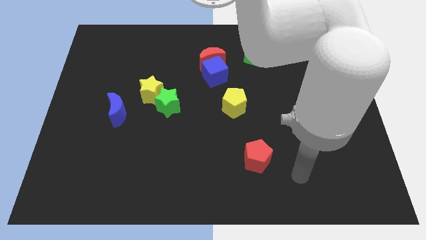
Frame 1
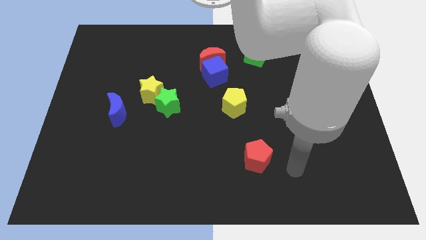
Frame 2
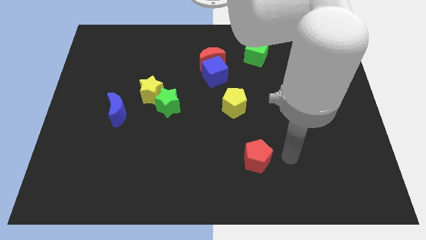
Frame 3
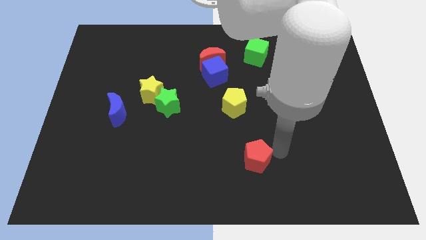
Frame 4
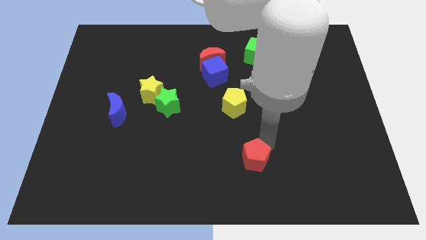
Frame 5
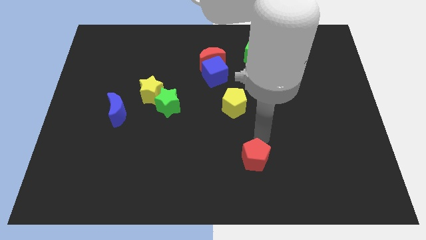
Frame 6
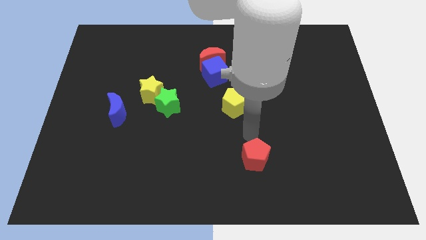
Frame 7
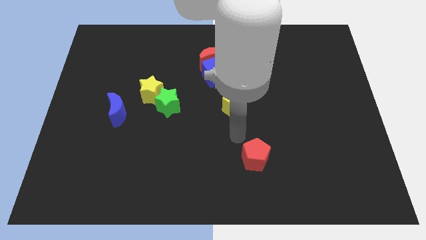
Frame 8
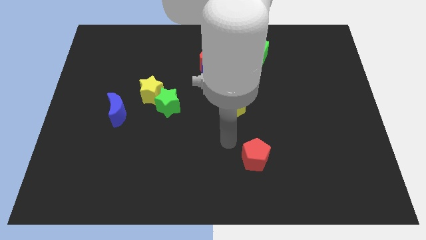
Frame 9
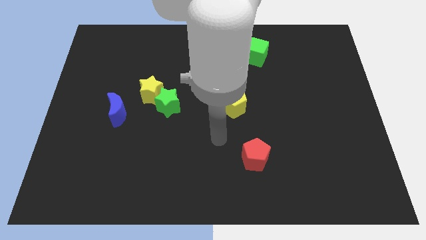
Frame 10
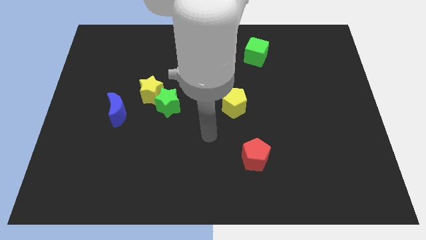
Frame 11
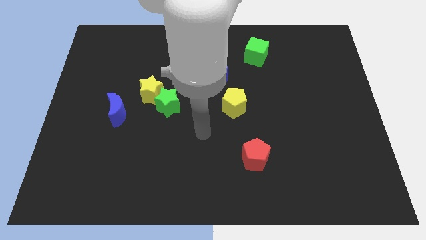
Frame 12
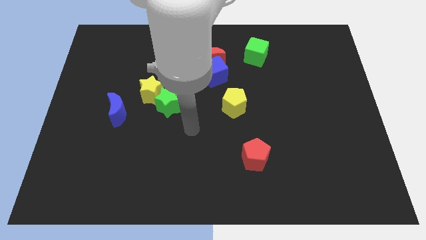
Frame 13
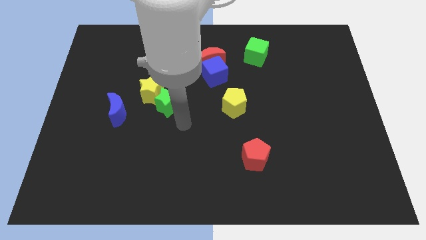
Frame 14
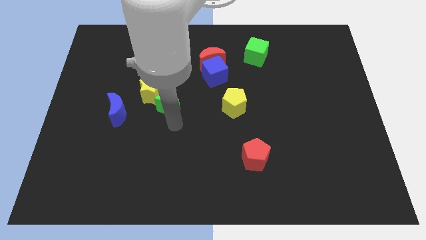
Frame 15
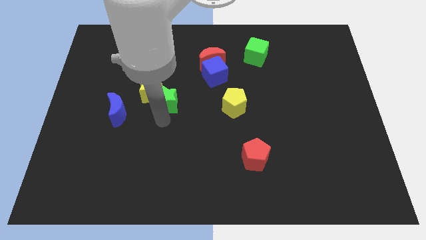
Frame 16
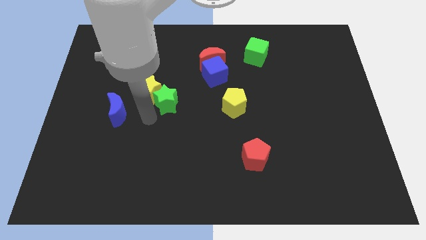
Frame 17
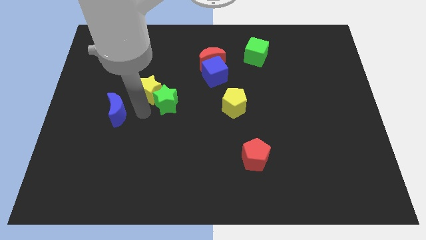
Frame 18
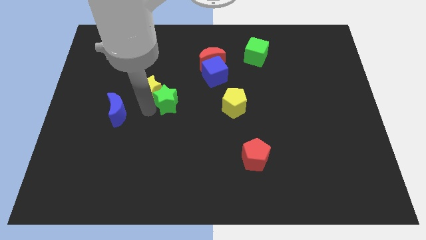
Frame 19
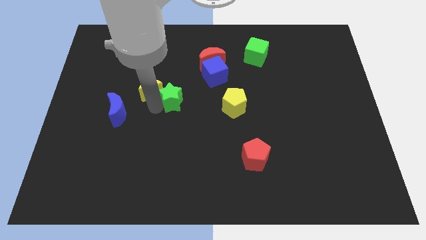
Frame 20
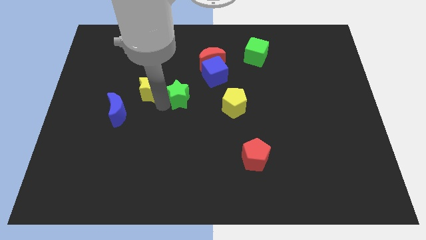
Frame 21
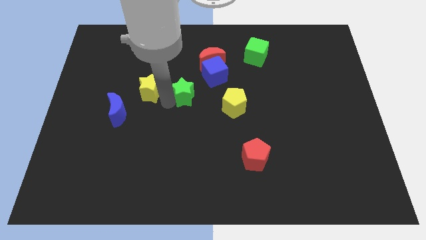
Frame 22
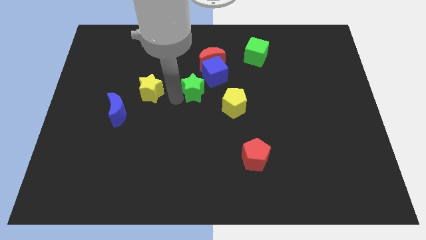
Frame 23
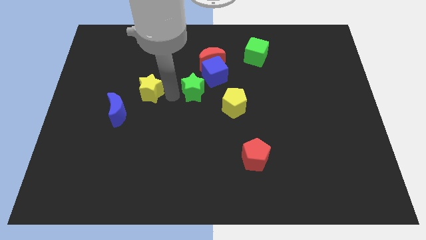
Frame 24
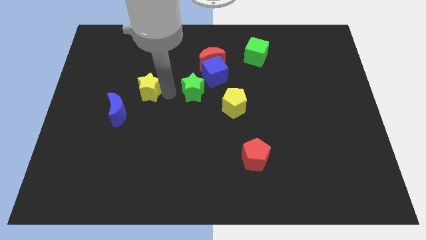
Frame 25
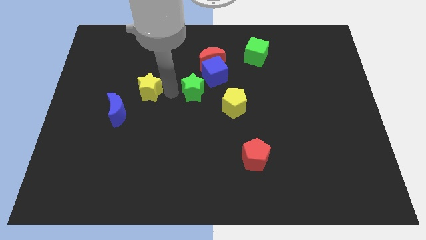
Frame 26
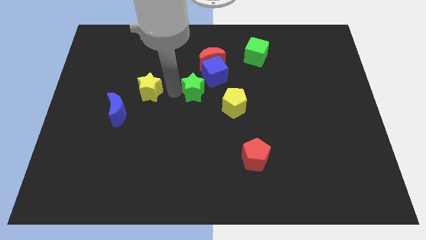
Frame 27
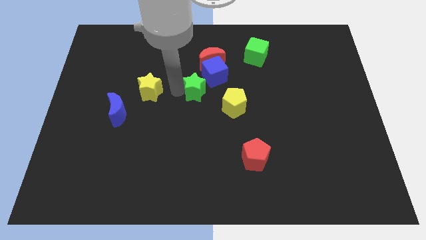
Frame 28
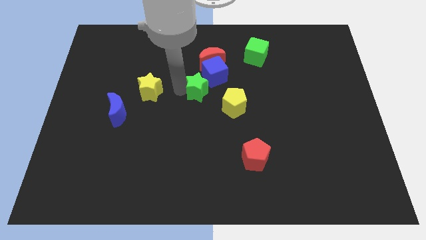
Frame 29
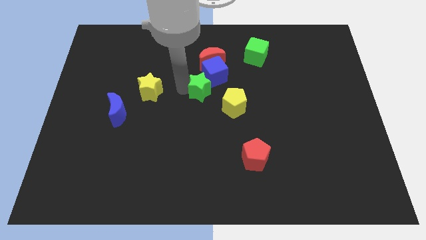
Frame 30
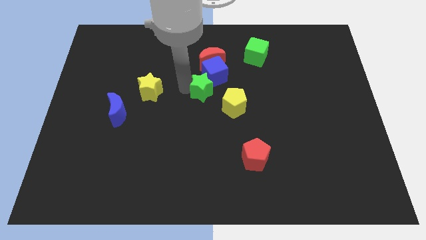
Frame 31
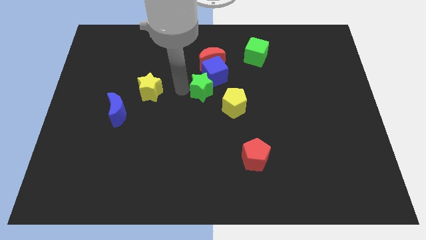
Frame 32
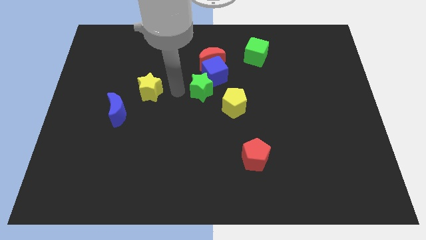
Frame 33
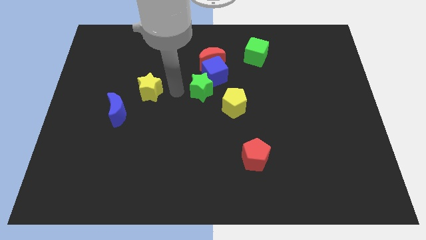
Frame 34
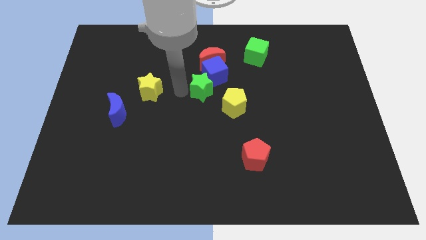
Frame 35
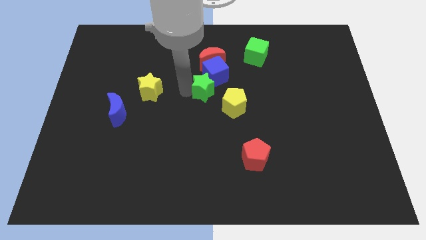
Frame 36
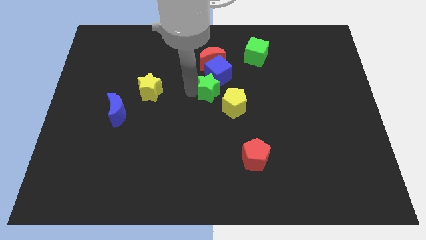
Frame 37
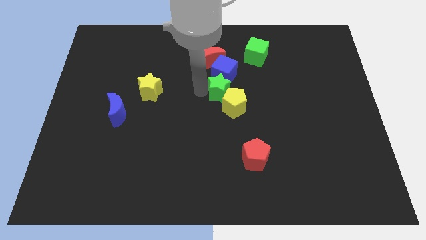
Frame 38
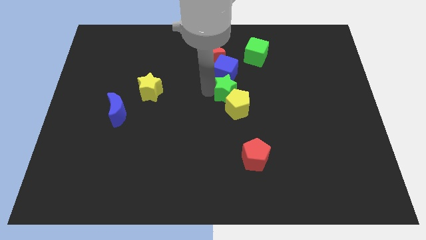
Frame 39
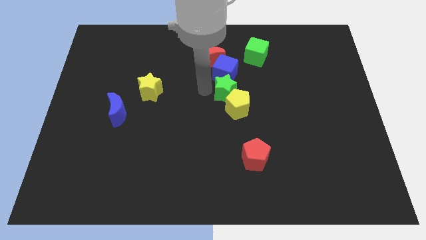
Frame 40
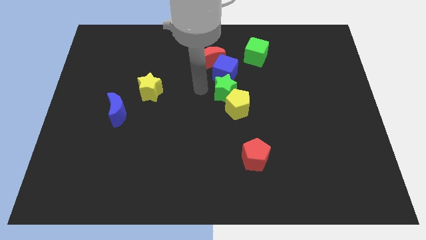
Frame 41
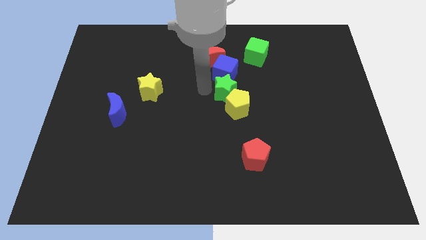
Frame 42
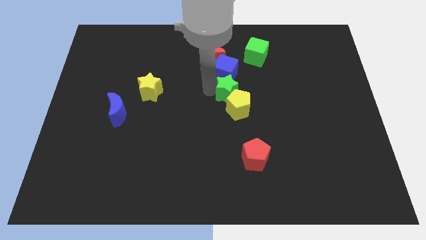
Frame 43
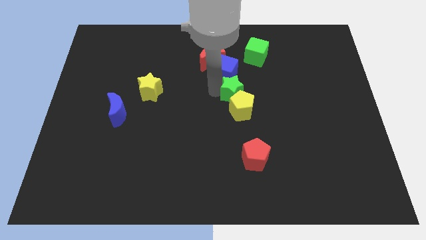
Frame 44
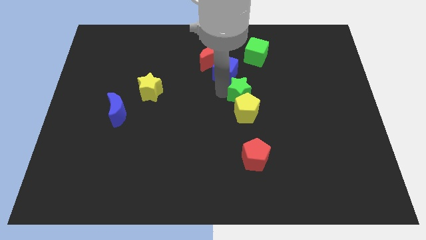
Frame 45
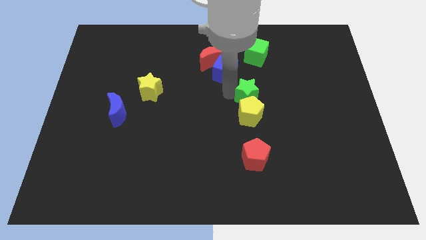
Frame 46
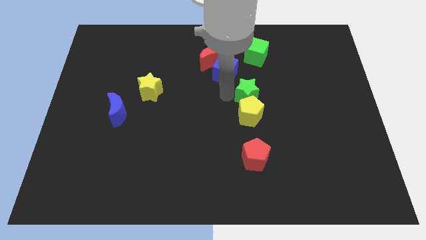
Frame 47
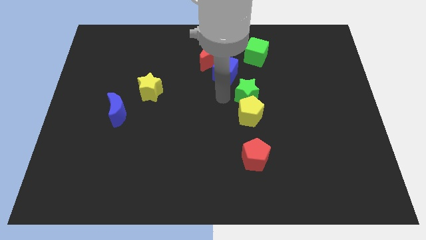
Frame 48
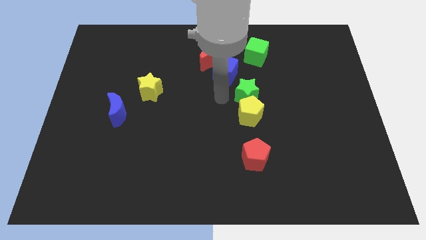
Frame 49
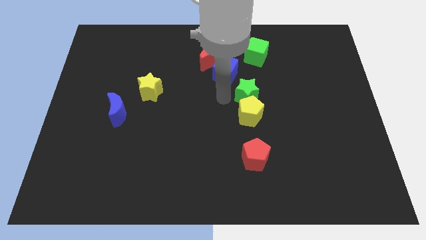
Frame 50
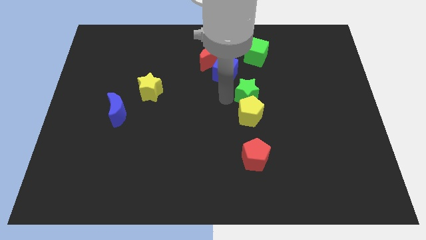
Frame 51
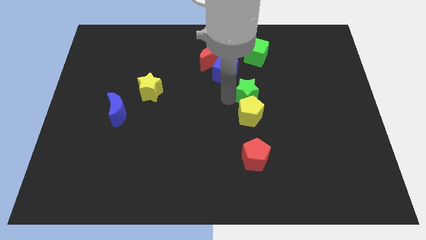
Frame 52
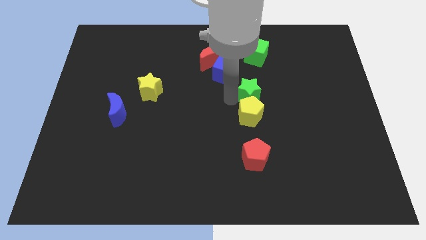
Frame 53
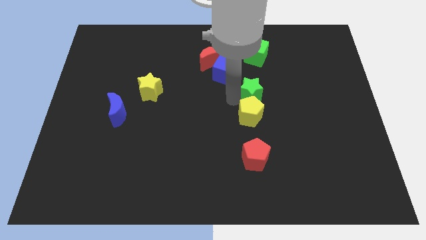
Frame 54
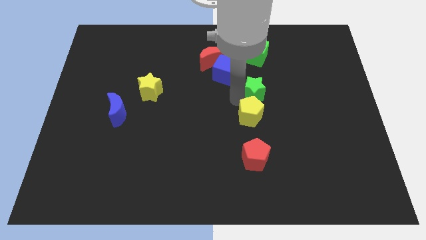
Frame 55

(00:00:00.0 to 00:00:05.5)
slide the green star to the right

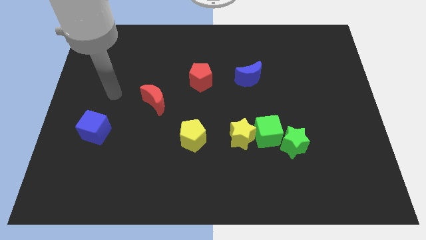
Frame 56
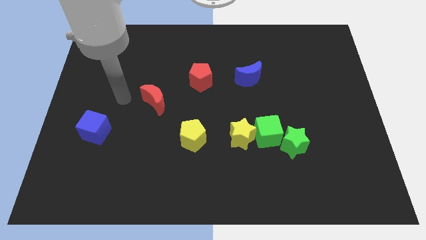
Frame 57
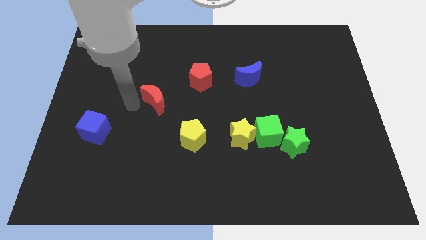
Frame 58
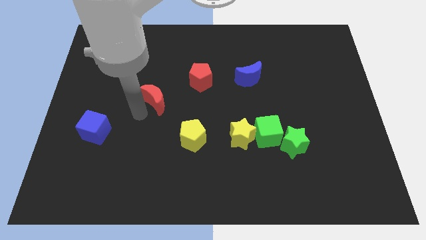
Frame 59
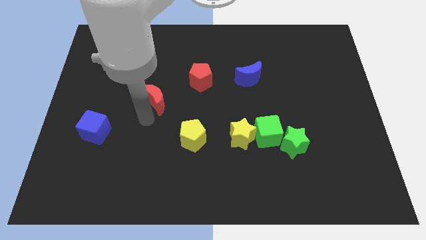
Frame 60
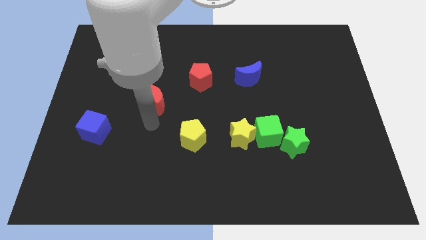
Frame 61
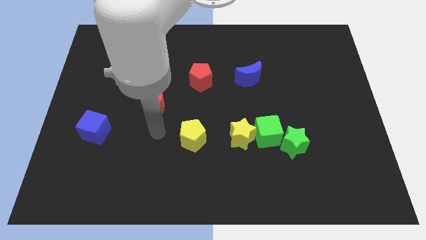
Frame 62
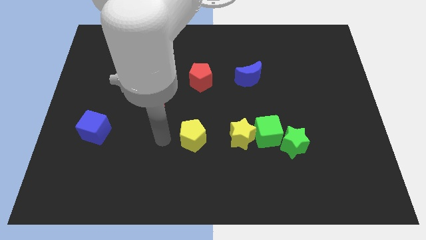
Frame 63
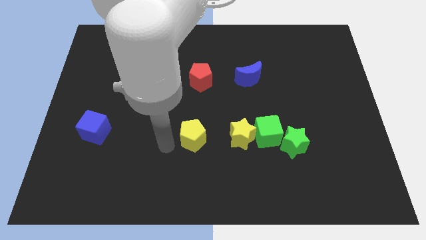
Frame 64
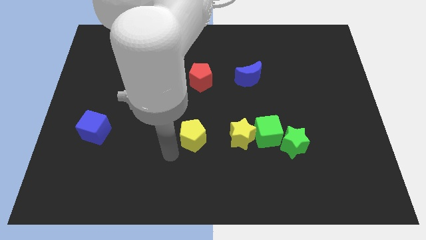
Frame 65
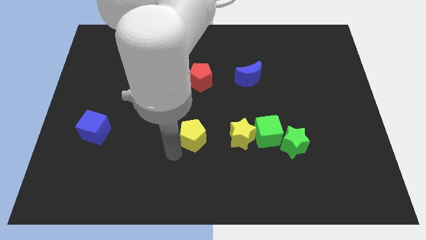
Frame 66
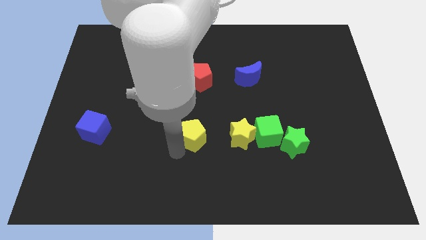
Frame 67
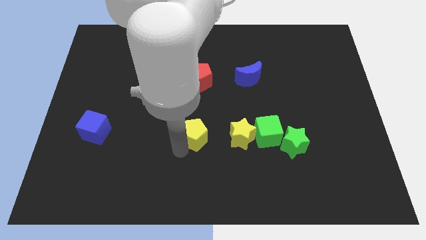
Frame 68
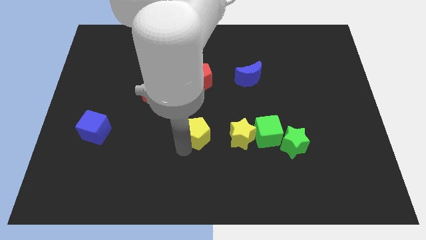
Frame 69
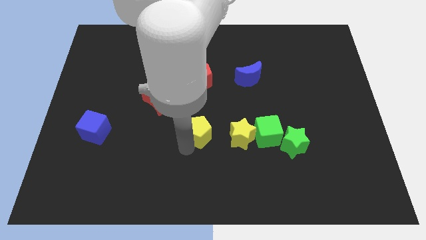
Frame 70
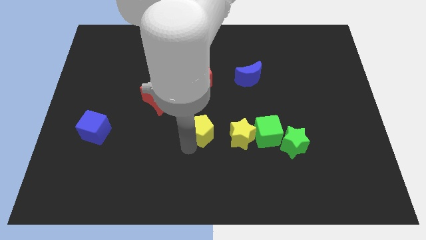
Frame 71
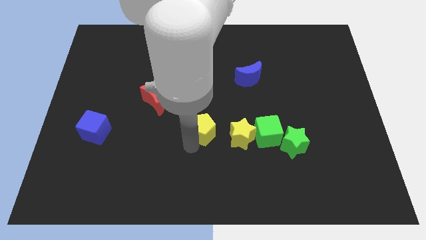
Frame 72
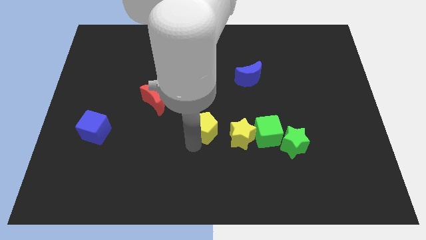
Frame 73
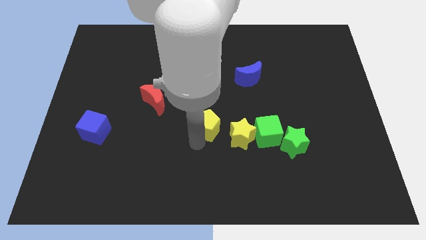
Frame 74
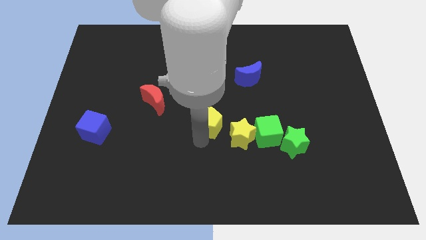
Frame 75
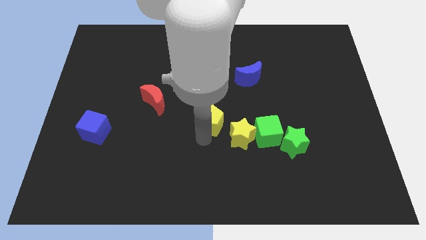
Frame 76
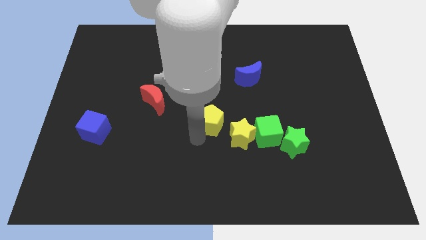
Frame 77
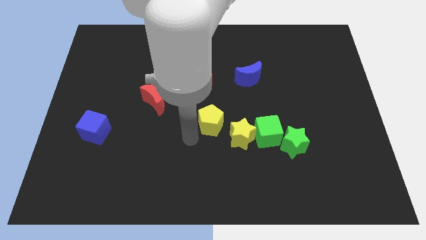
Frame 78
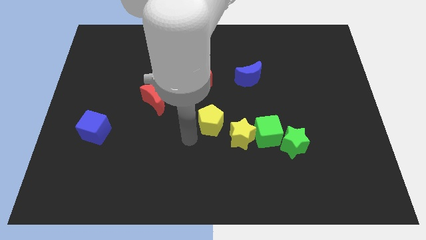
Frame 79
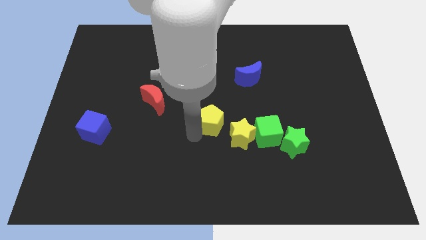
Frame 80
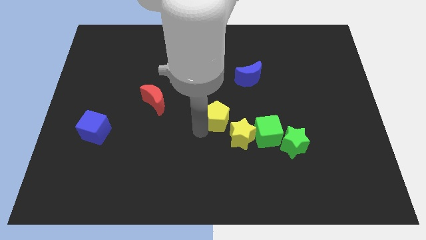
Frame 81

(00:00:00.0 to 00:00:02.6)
push the yellow pentagon a little bit diagonally up and right
